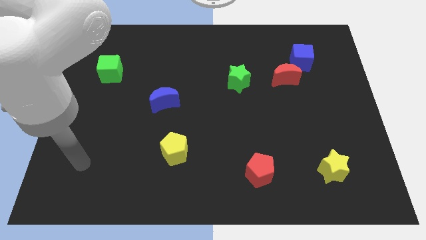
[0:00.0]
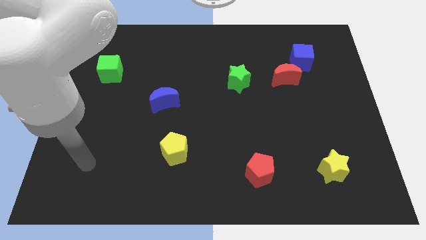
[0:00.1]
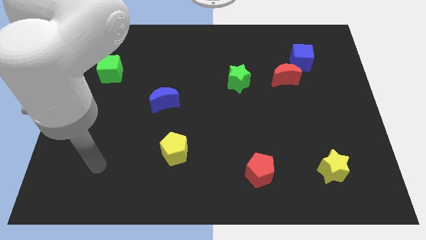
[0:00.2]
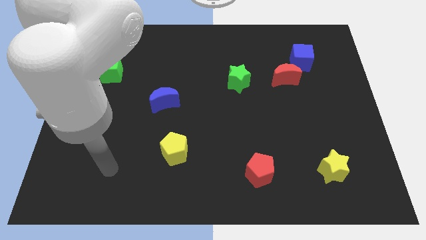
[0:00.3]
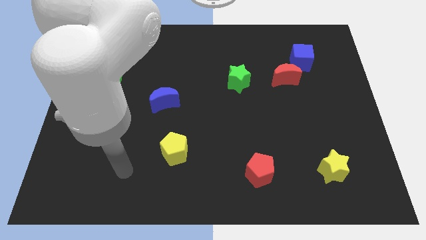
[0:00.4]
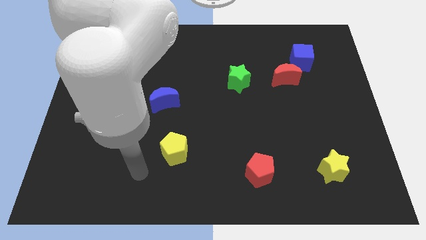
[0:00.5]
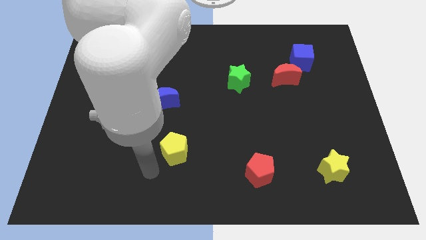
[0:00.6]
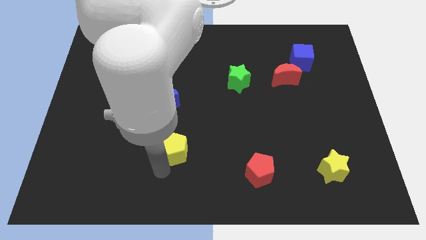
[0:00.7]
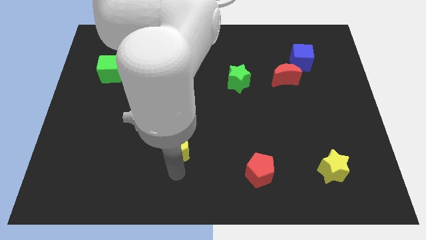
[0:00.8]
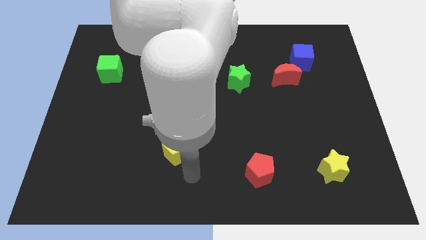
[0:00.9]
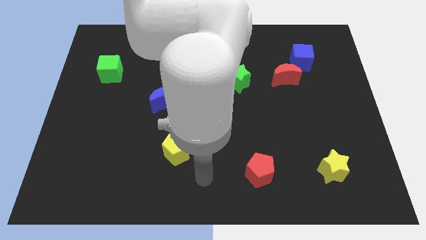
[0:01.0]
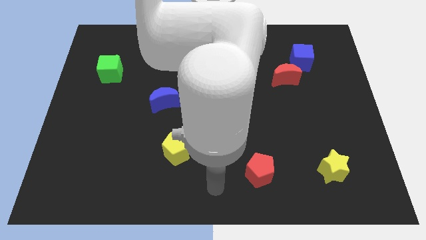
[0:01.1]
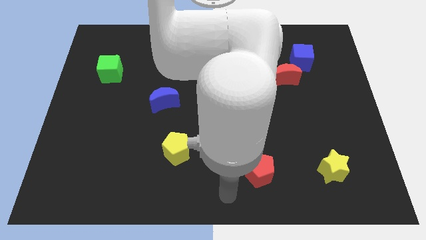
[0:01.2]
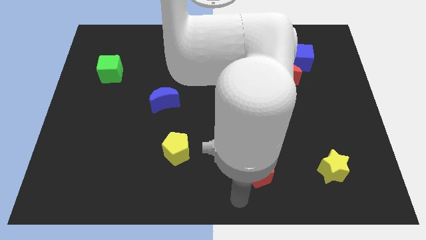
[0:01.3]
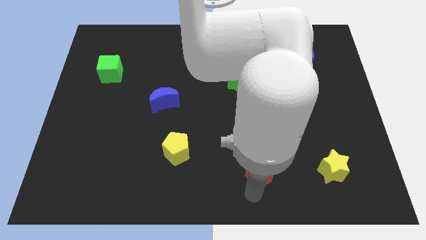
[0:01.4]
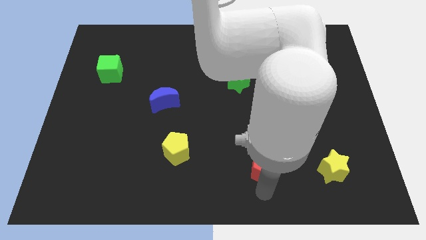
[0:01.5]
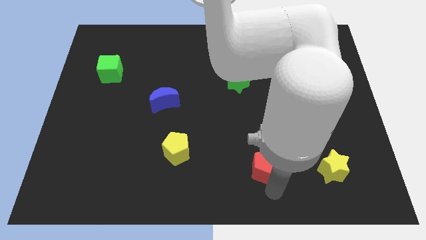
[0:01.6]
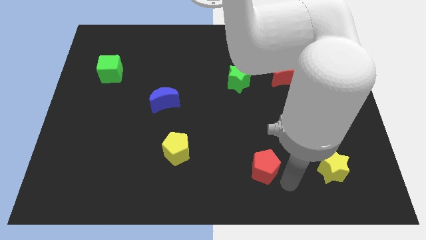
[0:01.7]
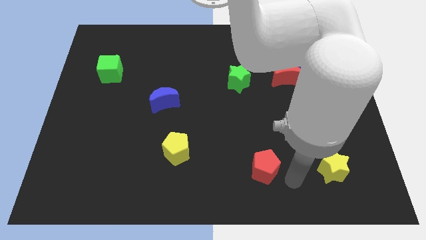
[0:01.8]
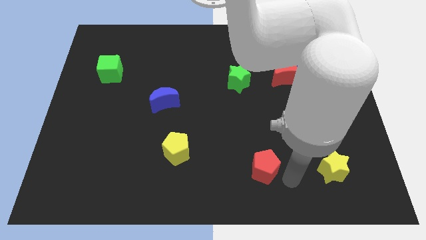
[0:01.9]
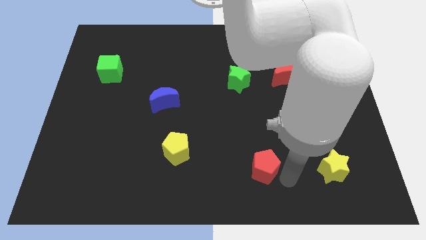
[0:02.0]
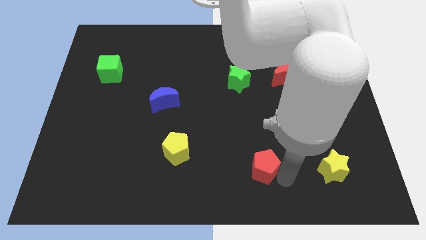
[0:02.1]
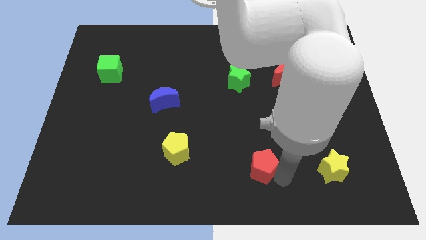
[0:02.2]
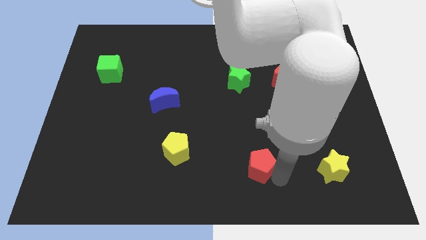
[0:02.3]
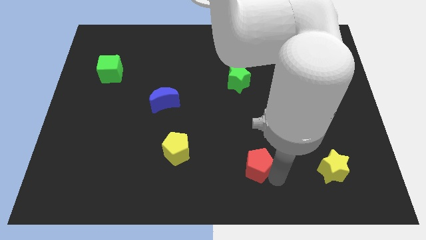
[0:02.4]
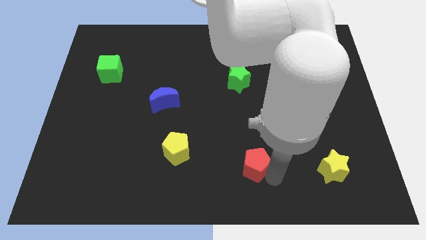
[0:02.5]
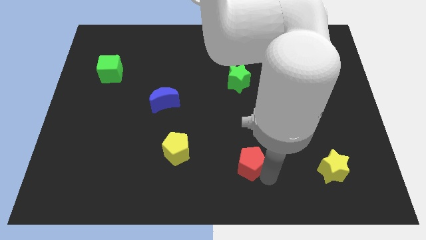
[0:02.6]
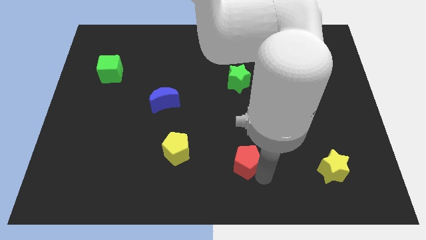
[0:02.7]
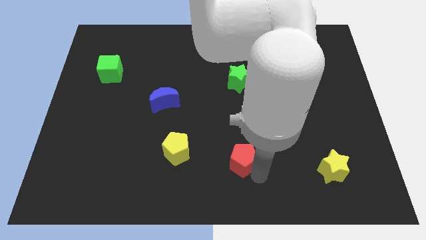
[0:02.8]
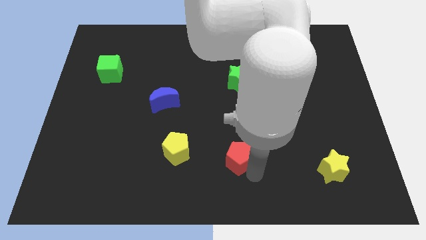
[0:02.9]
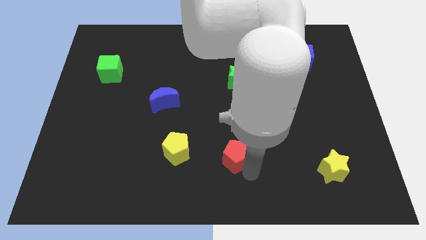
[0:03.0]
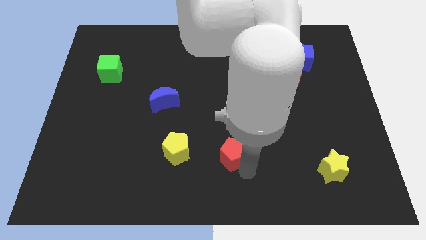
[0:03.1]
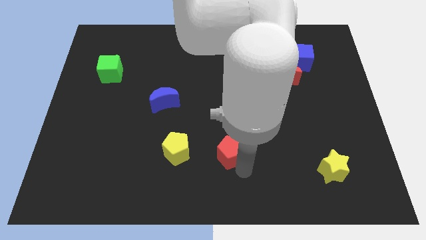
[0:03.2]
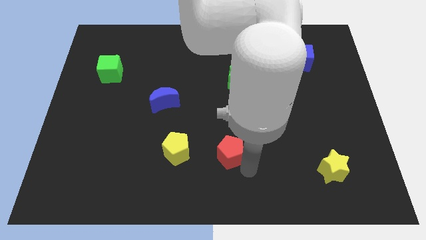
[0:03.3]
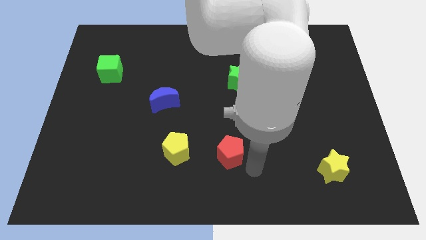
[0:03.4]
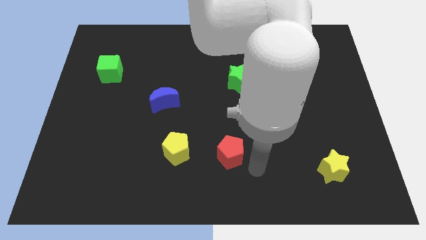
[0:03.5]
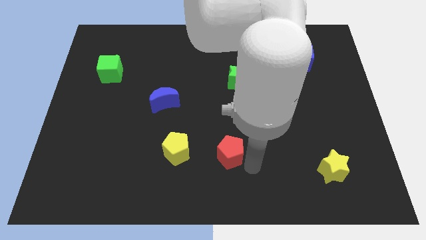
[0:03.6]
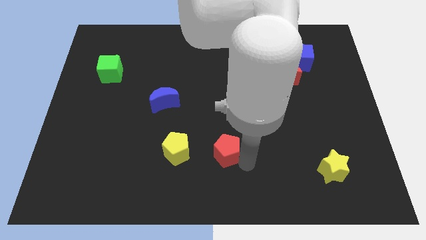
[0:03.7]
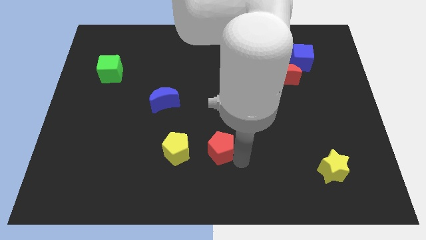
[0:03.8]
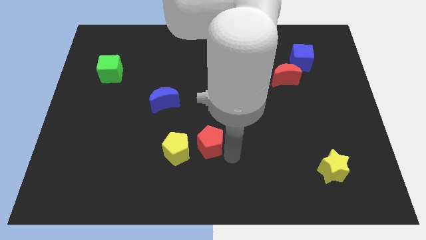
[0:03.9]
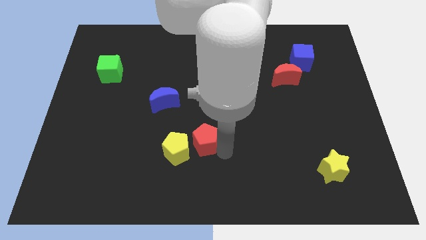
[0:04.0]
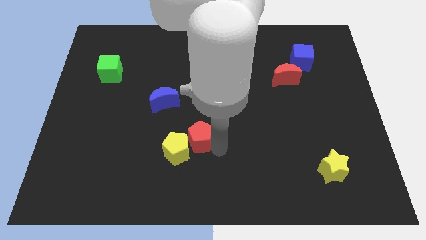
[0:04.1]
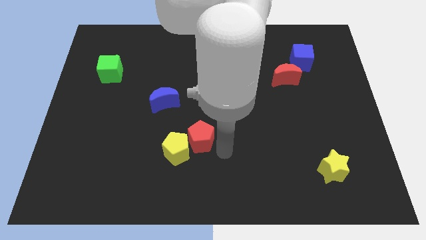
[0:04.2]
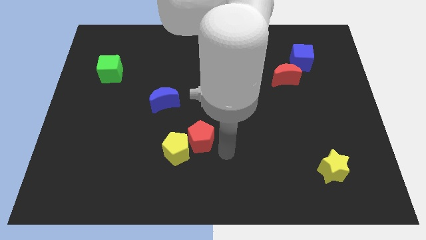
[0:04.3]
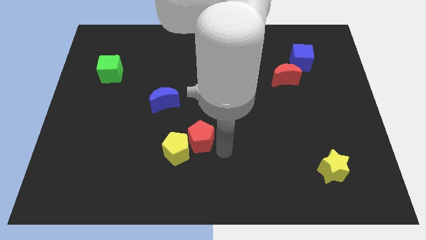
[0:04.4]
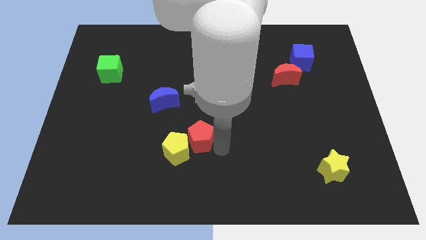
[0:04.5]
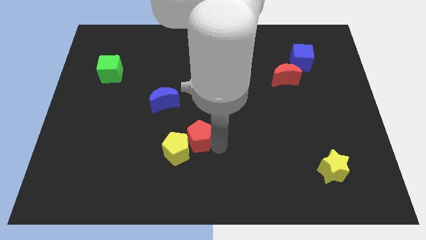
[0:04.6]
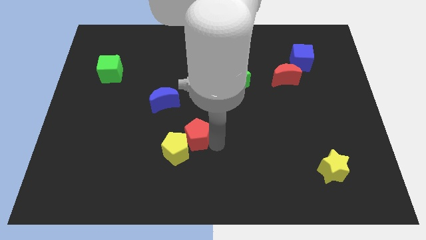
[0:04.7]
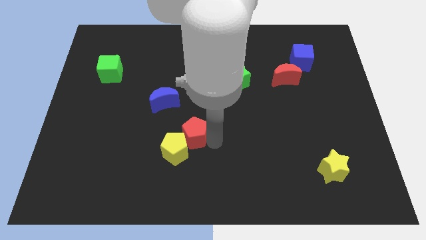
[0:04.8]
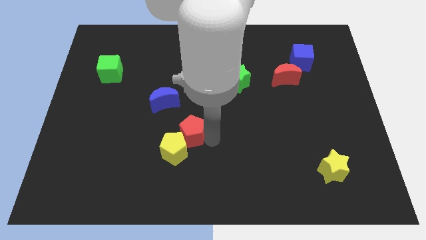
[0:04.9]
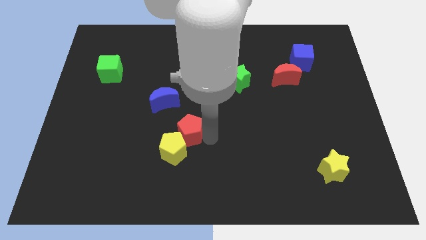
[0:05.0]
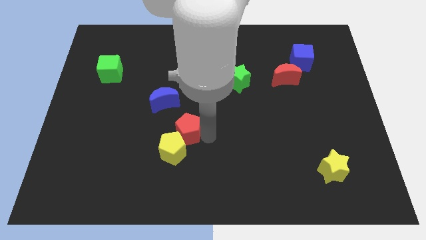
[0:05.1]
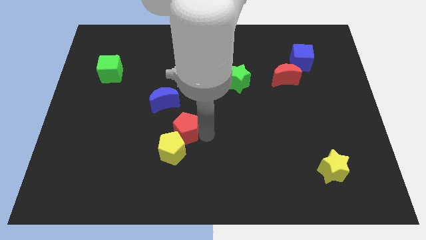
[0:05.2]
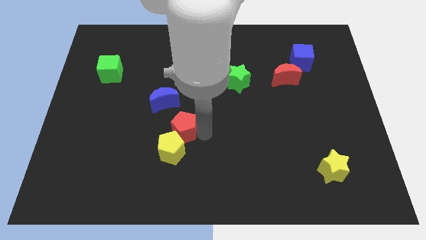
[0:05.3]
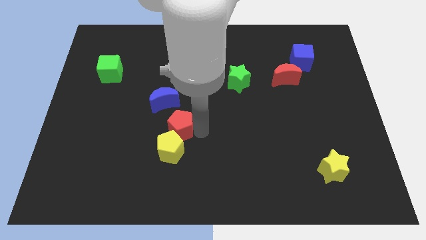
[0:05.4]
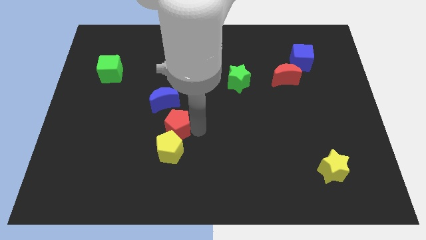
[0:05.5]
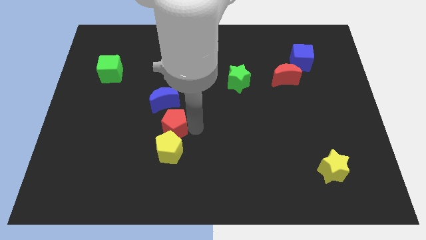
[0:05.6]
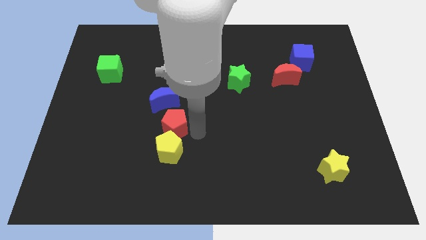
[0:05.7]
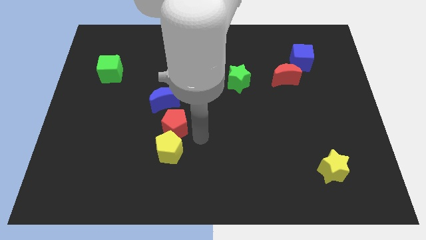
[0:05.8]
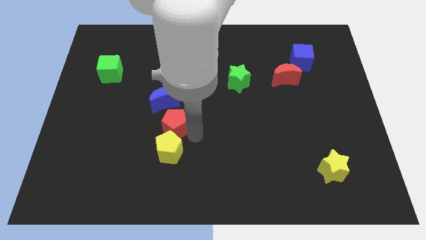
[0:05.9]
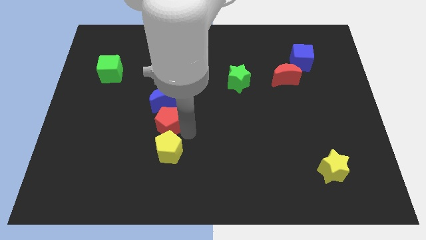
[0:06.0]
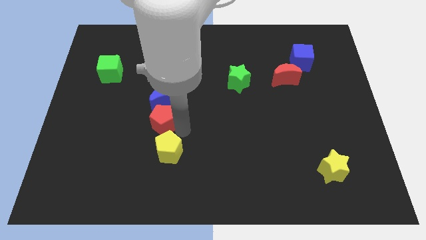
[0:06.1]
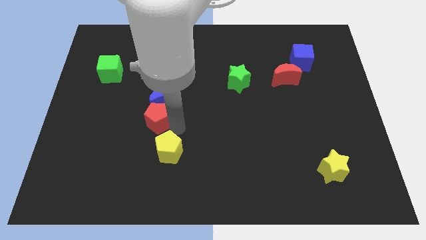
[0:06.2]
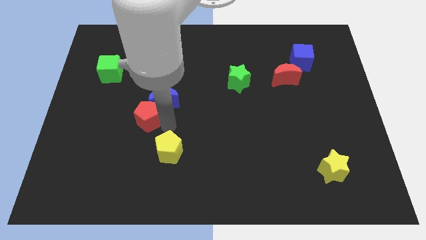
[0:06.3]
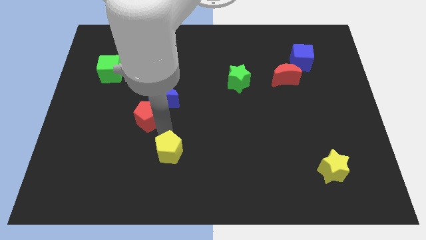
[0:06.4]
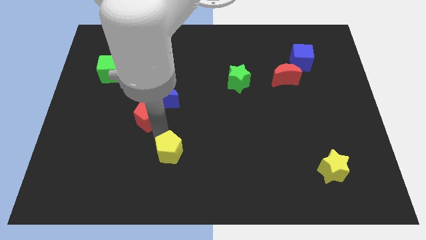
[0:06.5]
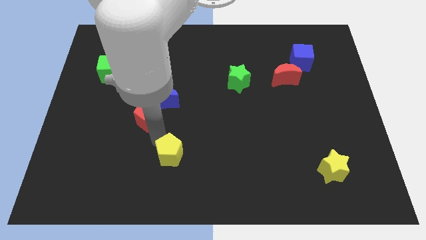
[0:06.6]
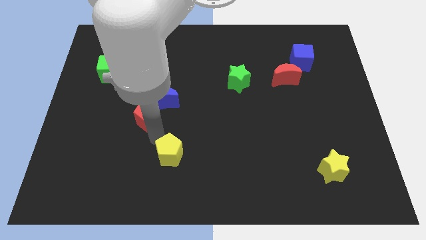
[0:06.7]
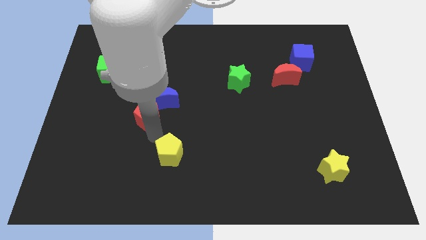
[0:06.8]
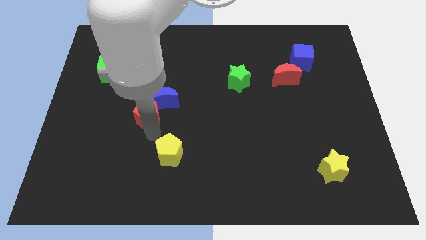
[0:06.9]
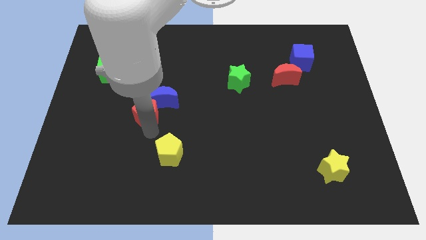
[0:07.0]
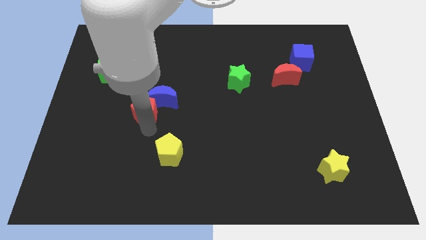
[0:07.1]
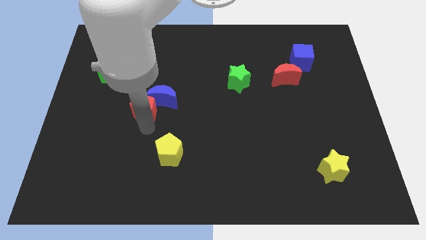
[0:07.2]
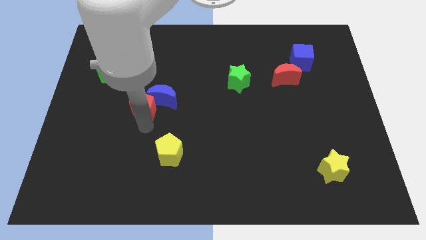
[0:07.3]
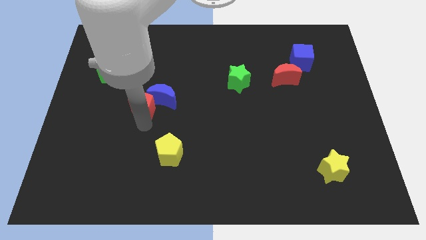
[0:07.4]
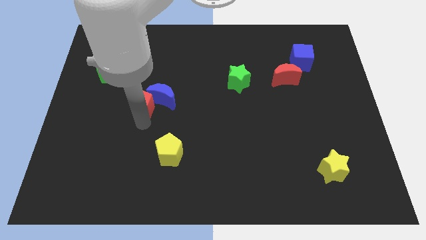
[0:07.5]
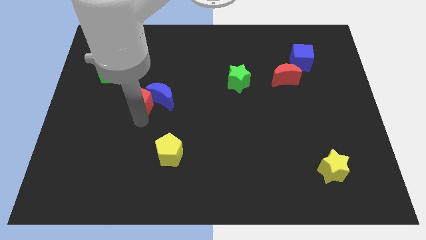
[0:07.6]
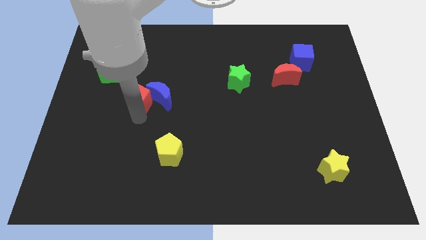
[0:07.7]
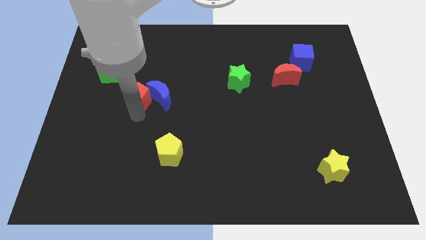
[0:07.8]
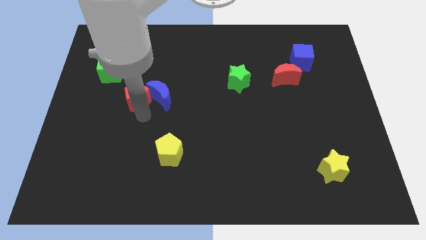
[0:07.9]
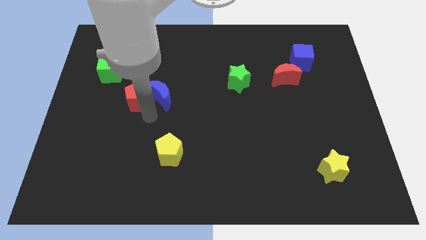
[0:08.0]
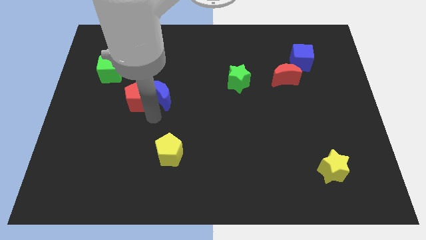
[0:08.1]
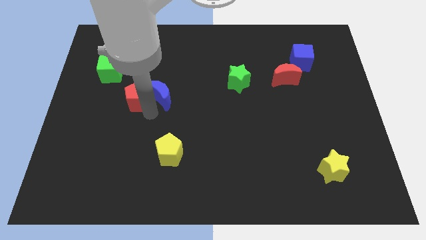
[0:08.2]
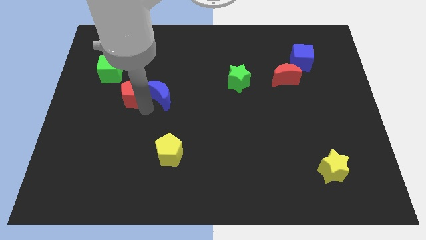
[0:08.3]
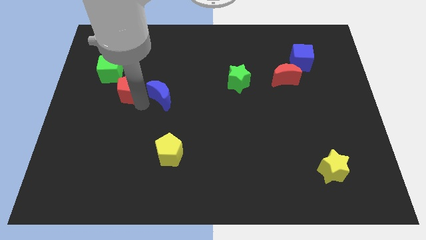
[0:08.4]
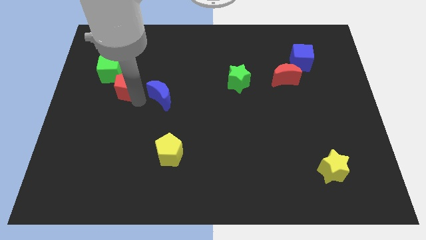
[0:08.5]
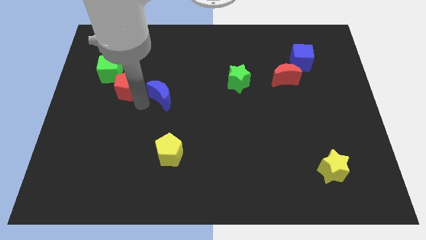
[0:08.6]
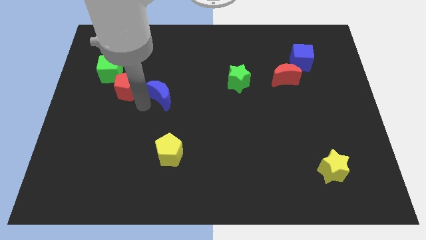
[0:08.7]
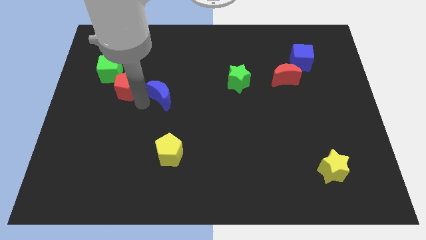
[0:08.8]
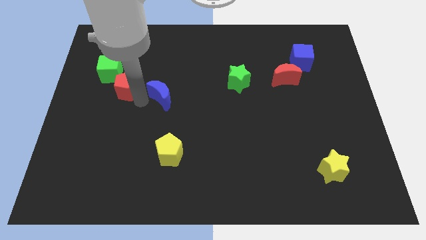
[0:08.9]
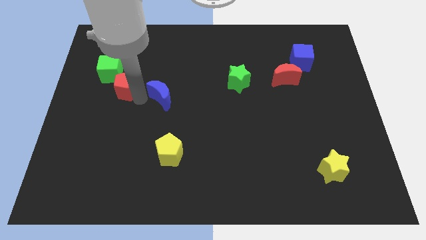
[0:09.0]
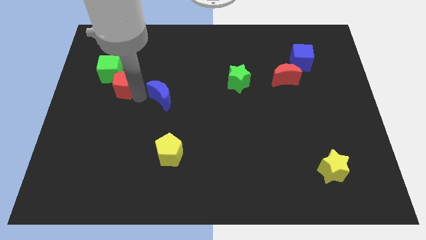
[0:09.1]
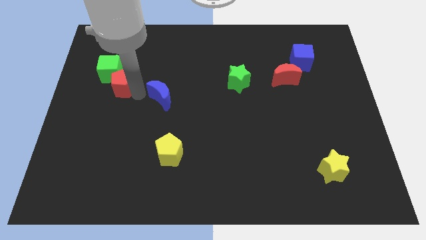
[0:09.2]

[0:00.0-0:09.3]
put the red pentagon next to the green cube
